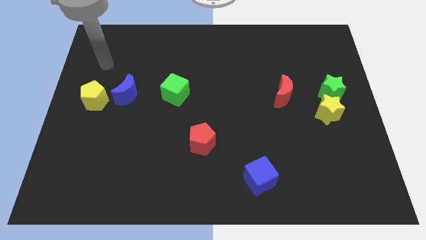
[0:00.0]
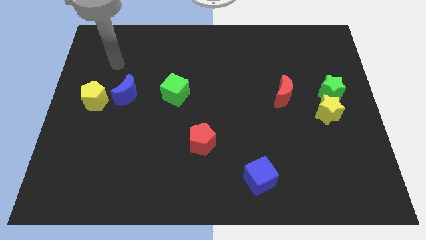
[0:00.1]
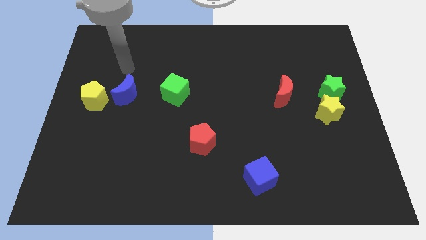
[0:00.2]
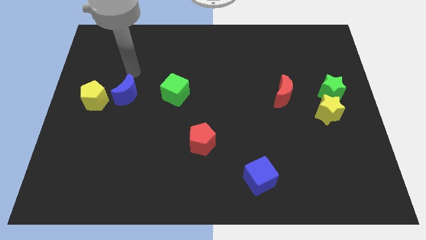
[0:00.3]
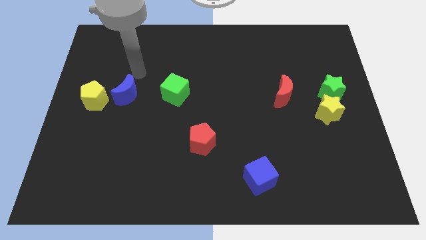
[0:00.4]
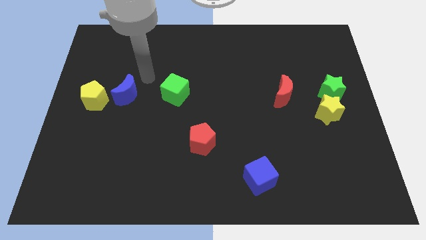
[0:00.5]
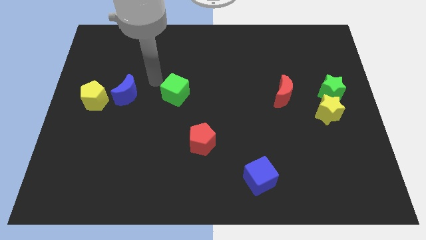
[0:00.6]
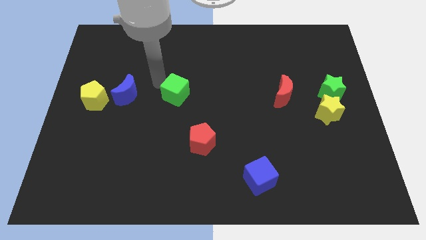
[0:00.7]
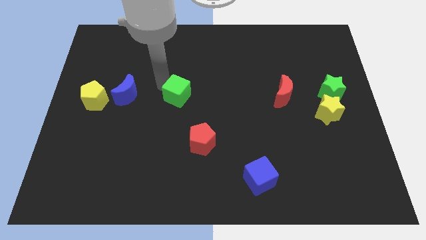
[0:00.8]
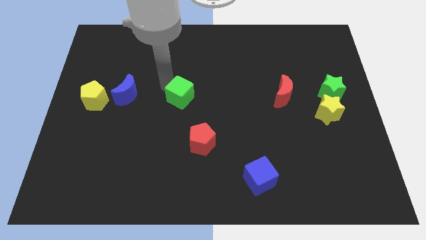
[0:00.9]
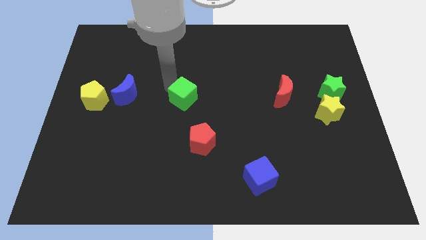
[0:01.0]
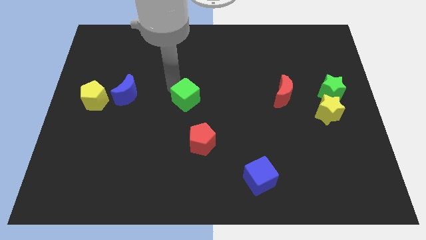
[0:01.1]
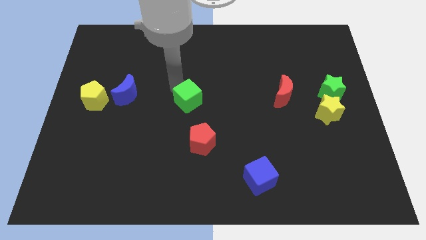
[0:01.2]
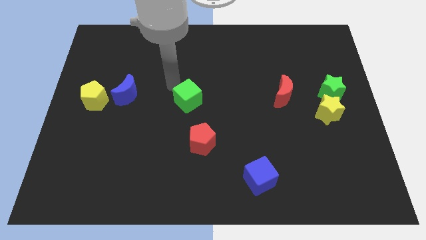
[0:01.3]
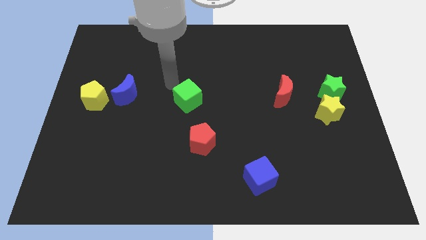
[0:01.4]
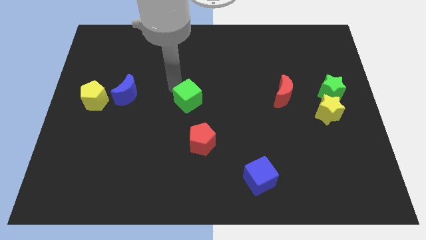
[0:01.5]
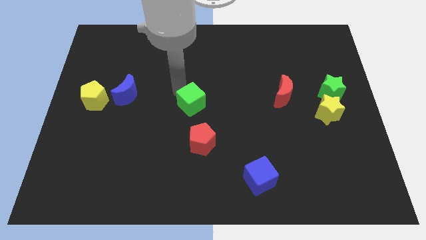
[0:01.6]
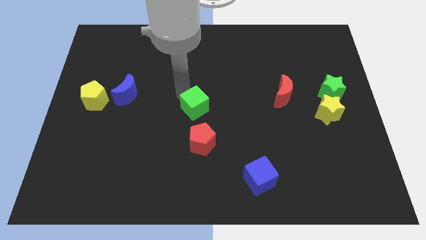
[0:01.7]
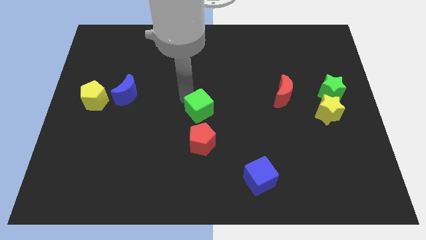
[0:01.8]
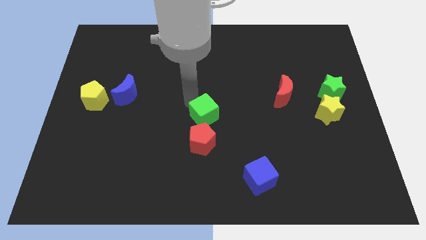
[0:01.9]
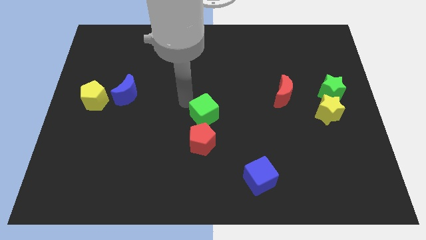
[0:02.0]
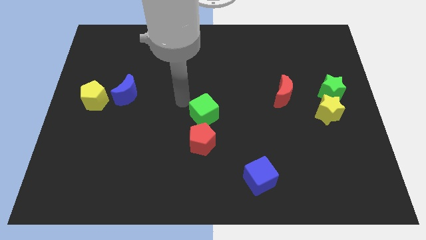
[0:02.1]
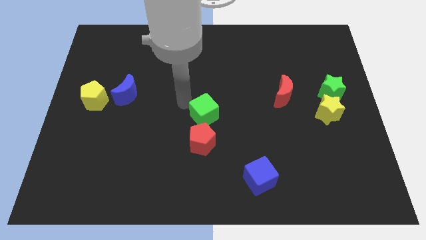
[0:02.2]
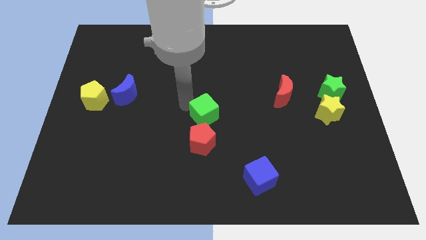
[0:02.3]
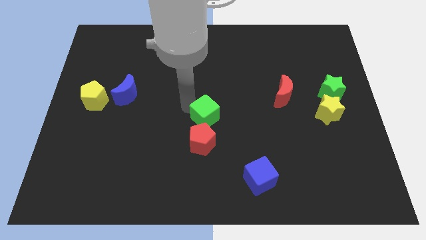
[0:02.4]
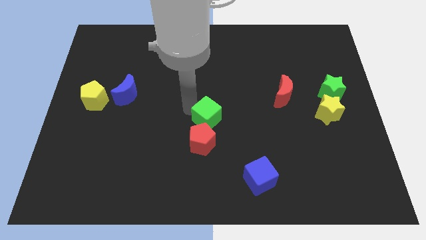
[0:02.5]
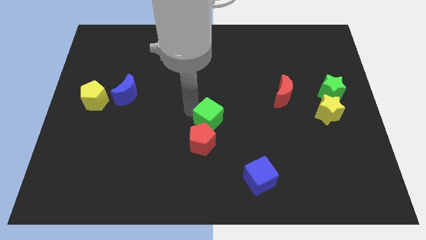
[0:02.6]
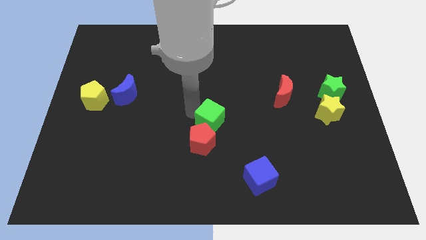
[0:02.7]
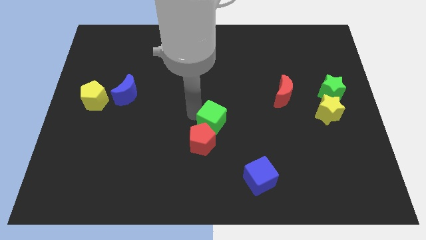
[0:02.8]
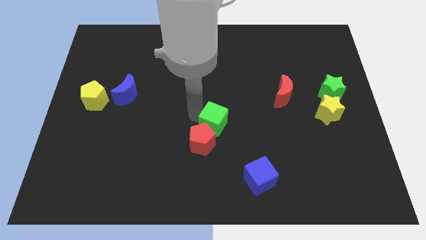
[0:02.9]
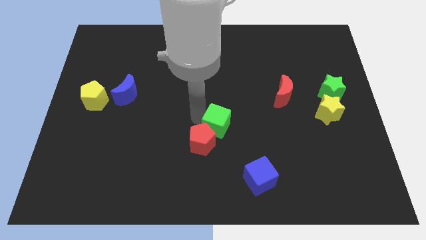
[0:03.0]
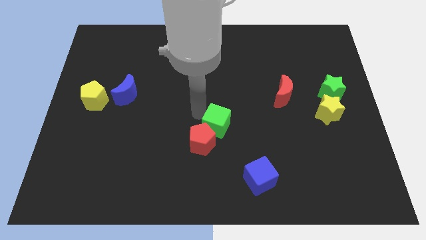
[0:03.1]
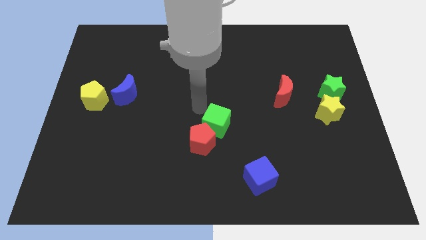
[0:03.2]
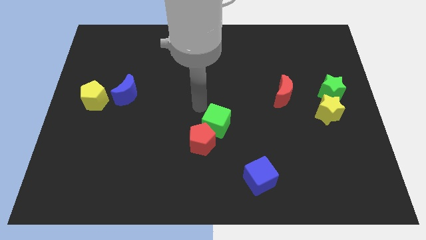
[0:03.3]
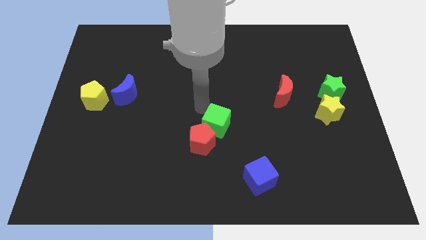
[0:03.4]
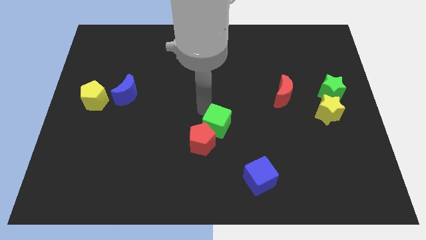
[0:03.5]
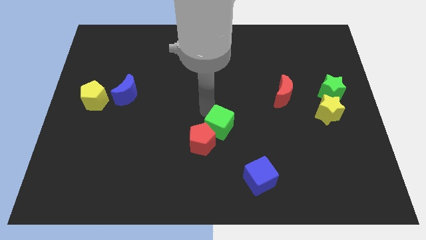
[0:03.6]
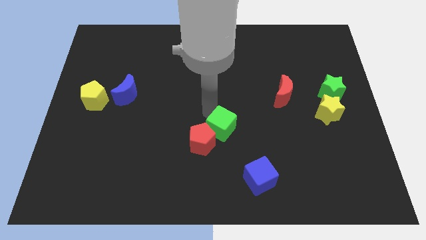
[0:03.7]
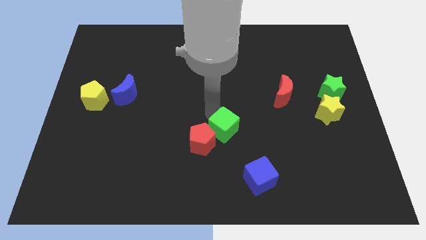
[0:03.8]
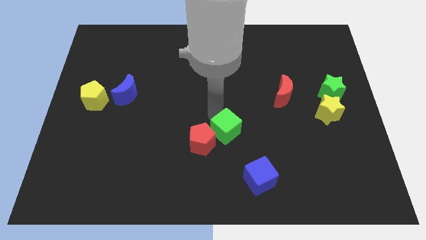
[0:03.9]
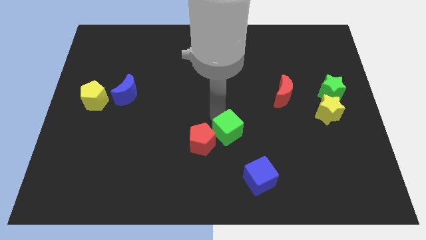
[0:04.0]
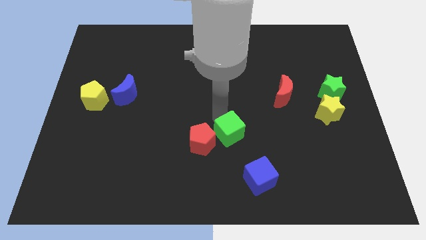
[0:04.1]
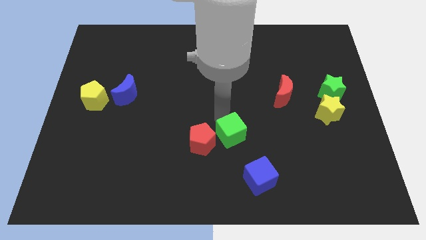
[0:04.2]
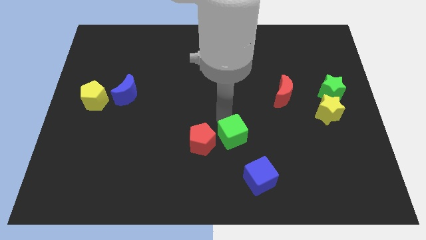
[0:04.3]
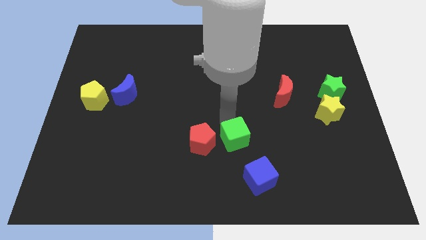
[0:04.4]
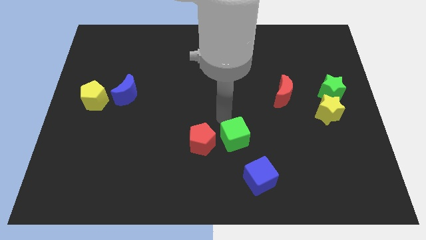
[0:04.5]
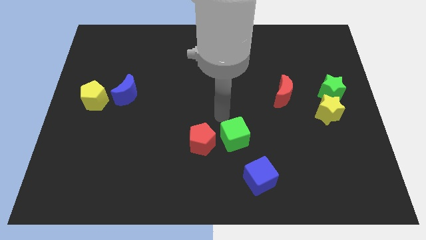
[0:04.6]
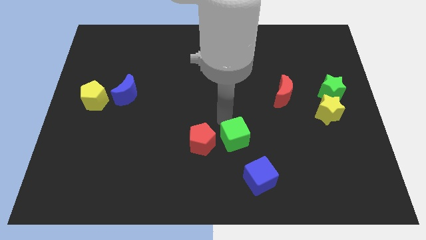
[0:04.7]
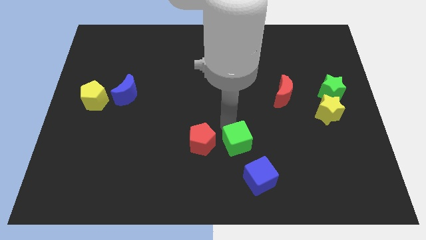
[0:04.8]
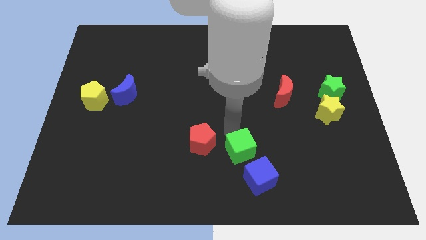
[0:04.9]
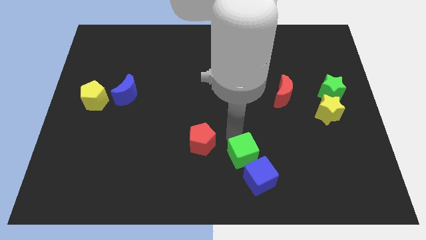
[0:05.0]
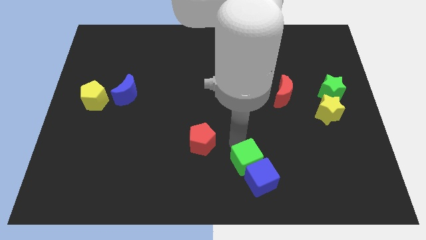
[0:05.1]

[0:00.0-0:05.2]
slide the green cube to the blue cube

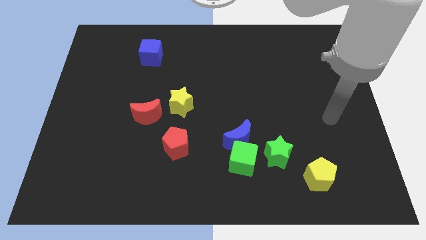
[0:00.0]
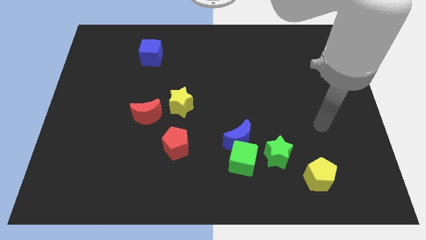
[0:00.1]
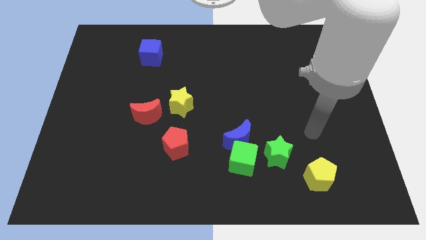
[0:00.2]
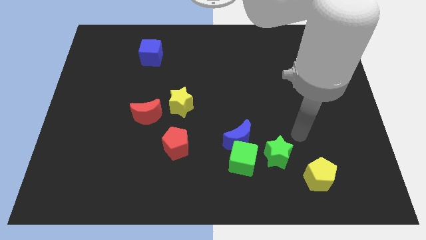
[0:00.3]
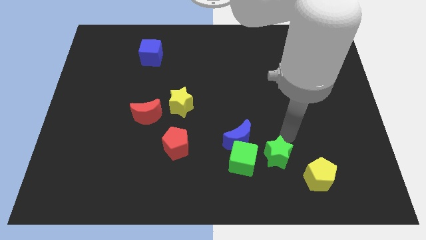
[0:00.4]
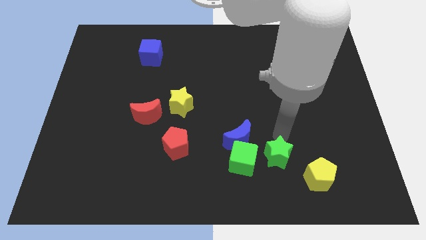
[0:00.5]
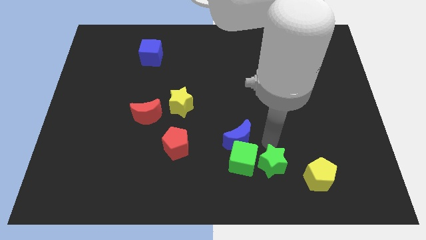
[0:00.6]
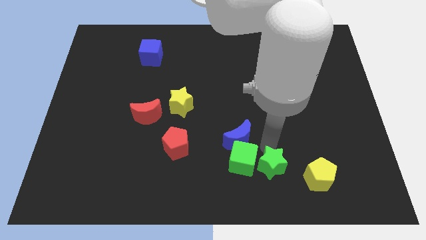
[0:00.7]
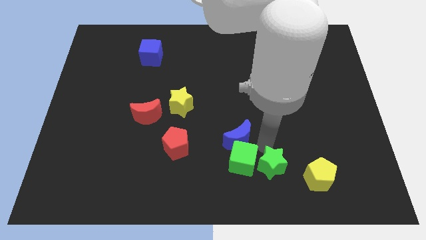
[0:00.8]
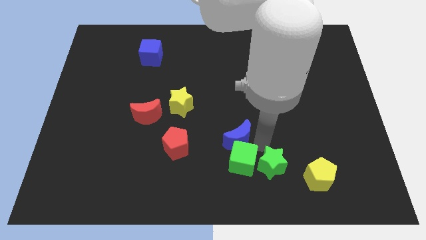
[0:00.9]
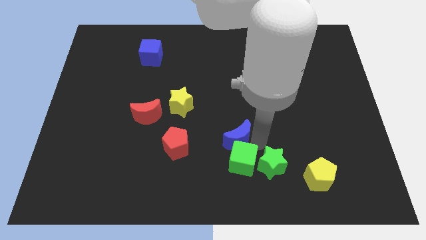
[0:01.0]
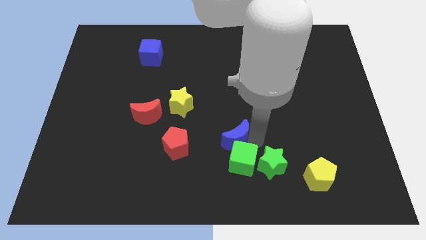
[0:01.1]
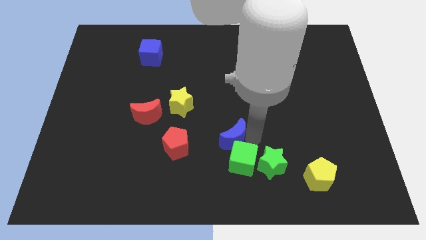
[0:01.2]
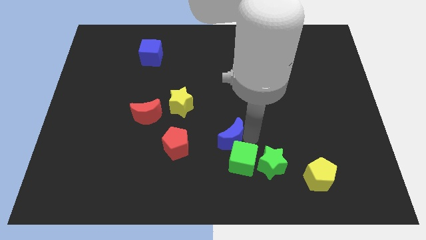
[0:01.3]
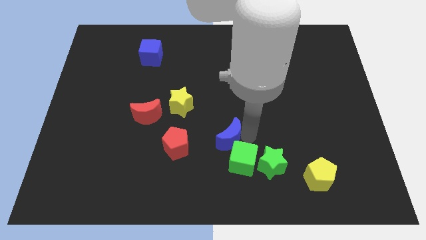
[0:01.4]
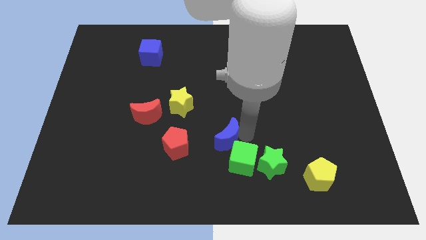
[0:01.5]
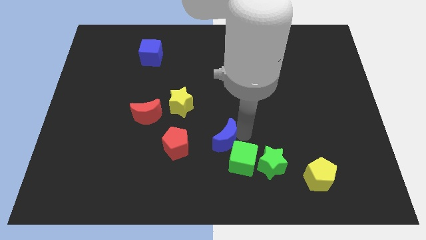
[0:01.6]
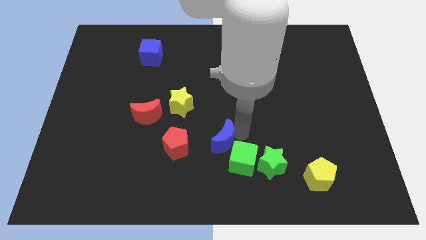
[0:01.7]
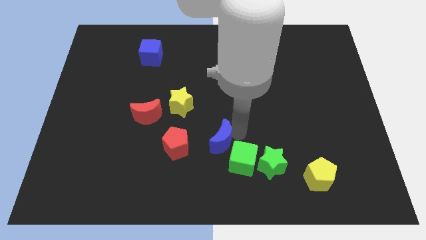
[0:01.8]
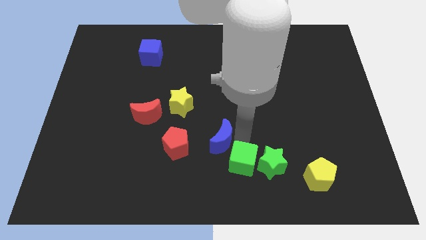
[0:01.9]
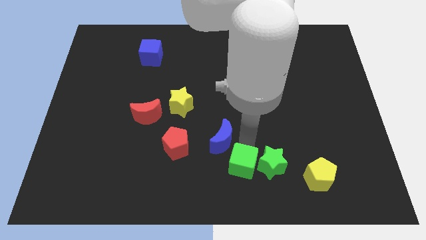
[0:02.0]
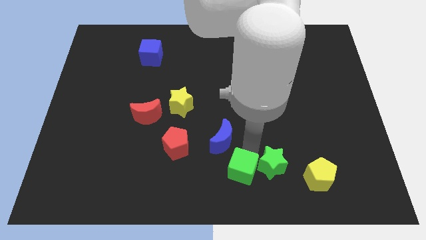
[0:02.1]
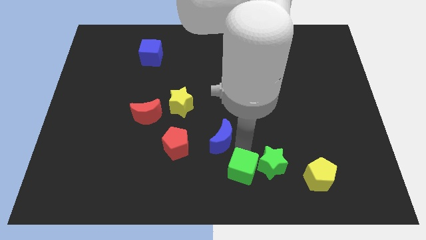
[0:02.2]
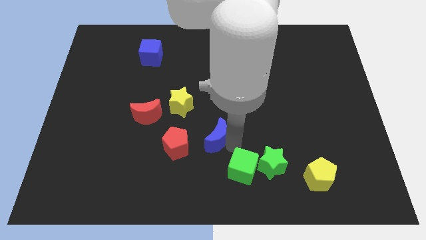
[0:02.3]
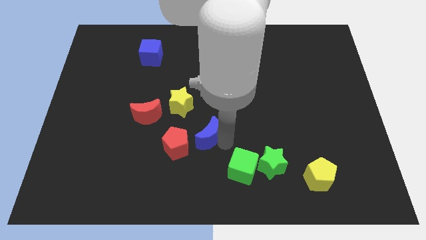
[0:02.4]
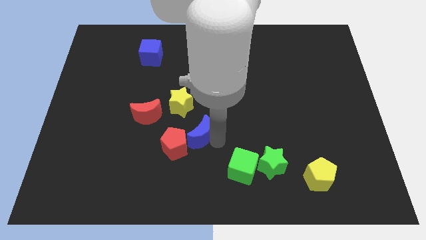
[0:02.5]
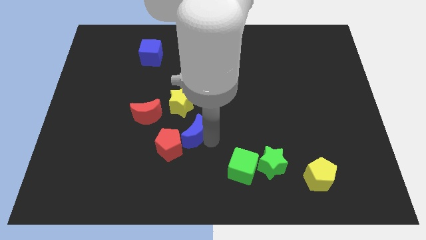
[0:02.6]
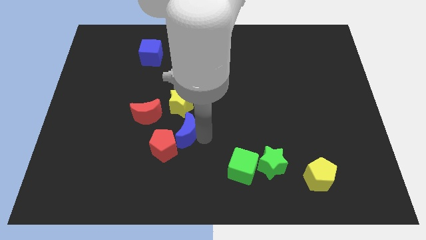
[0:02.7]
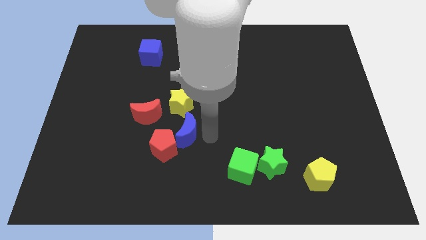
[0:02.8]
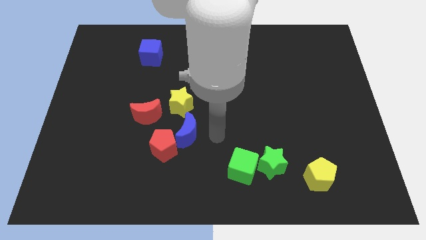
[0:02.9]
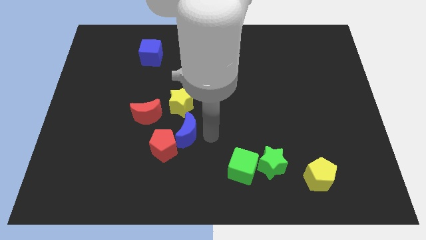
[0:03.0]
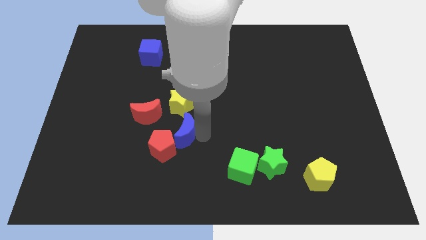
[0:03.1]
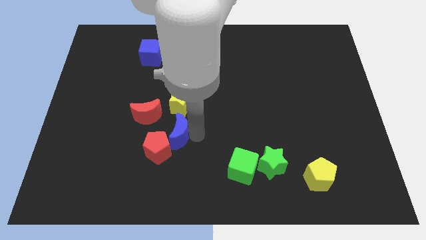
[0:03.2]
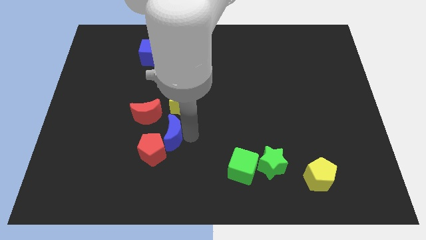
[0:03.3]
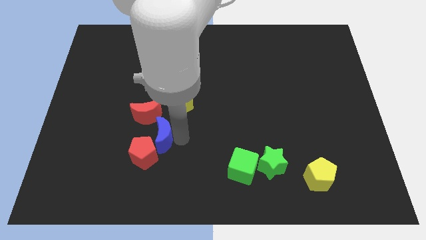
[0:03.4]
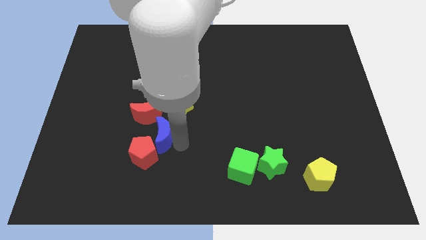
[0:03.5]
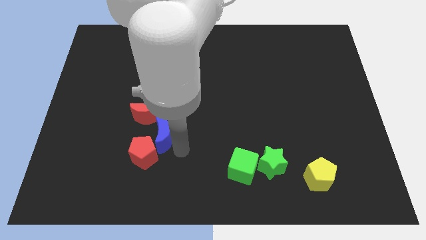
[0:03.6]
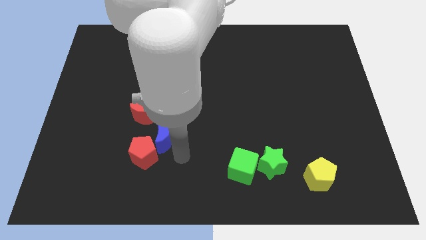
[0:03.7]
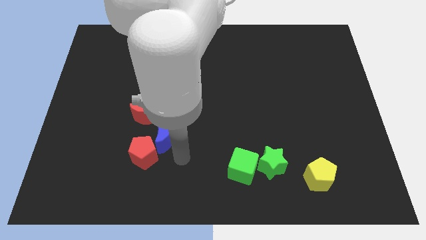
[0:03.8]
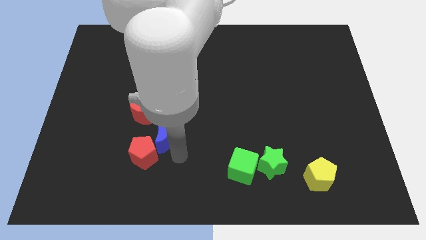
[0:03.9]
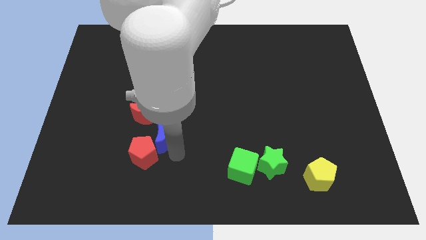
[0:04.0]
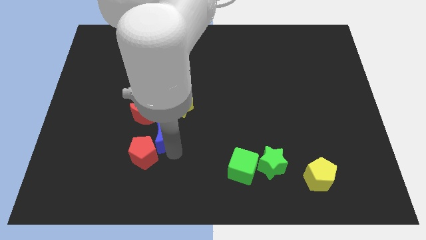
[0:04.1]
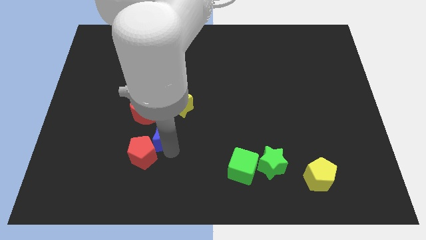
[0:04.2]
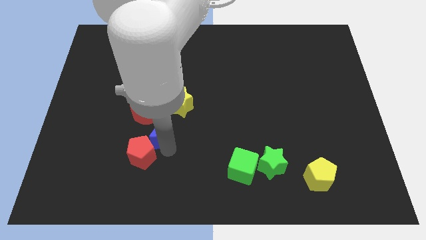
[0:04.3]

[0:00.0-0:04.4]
move the blue moon to the red moon
